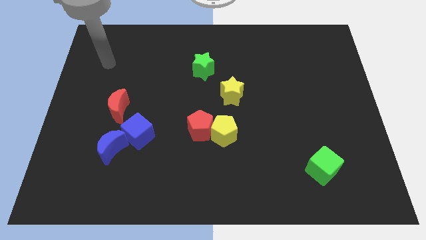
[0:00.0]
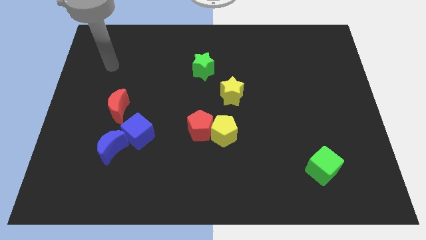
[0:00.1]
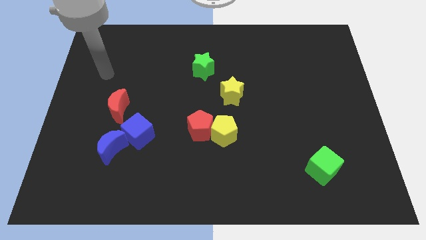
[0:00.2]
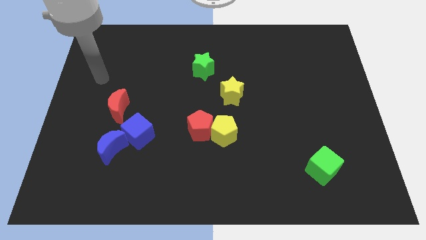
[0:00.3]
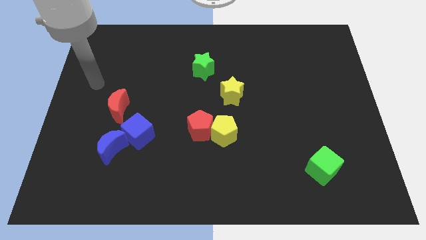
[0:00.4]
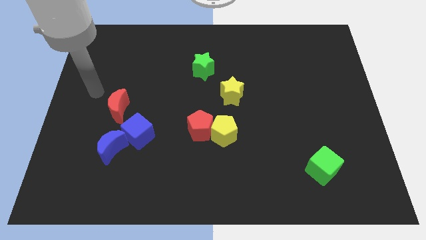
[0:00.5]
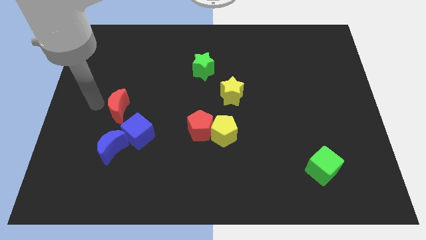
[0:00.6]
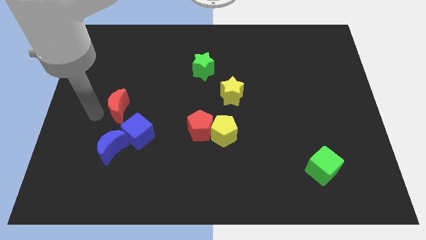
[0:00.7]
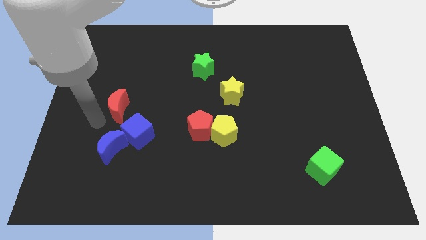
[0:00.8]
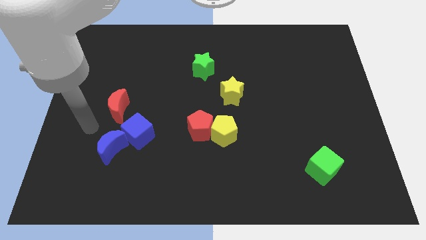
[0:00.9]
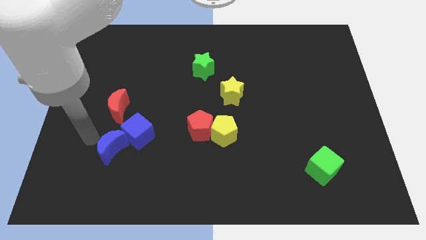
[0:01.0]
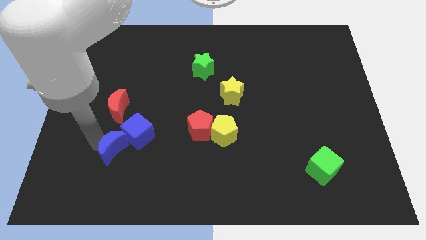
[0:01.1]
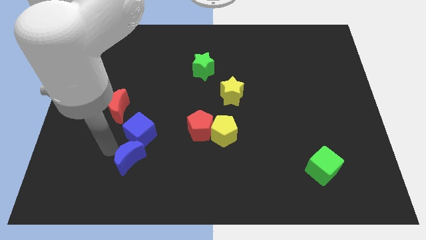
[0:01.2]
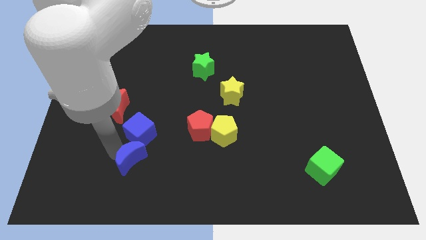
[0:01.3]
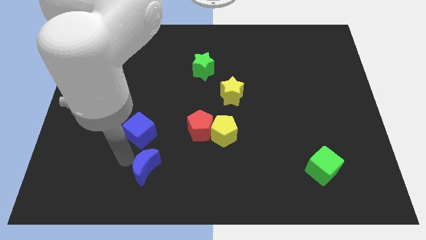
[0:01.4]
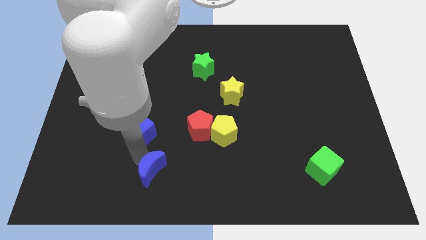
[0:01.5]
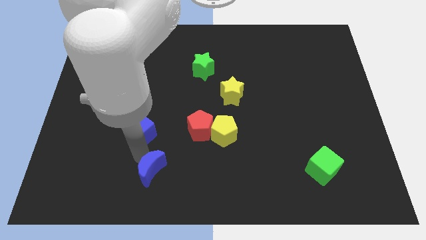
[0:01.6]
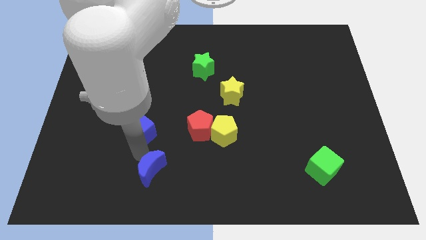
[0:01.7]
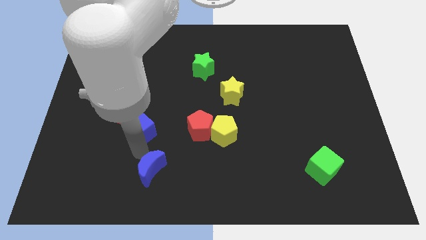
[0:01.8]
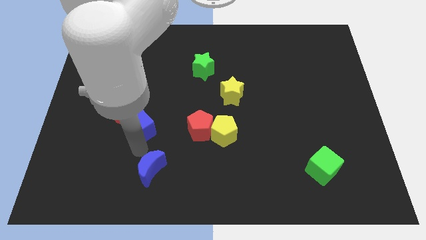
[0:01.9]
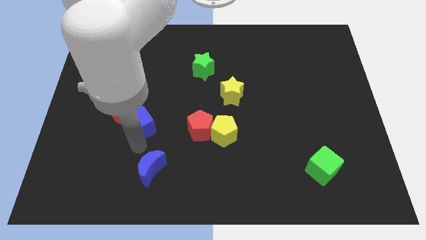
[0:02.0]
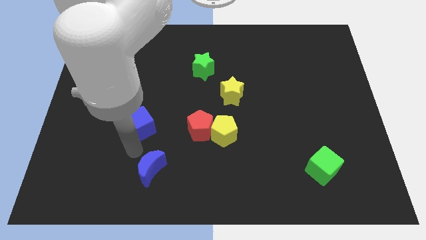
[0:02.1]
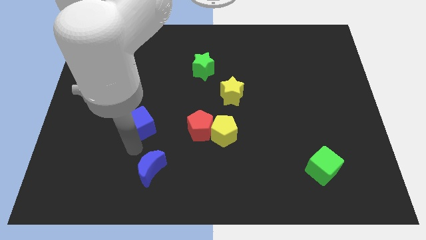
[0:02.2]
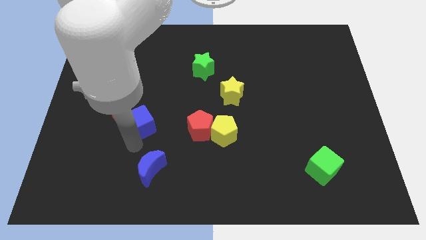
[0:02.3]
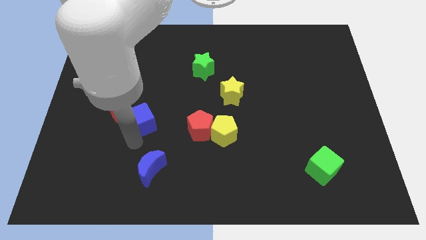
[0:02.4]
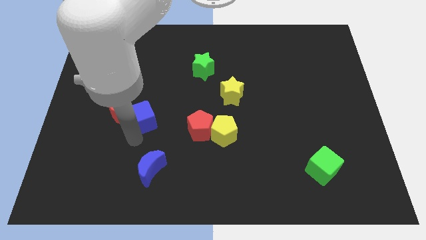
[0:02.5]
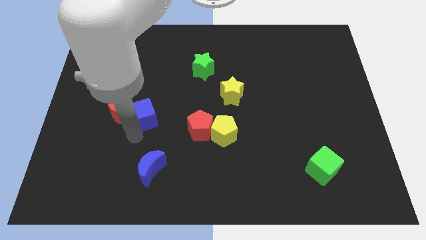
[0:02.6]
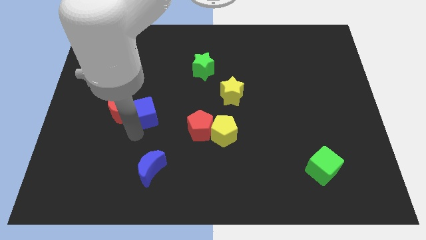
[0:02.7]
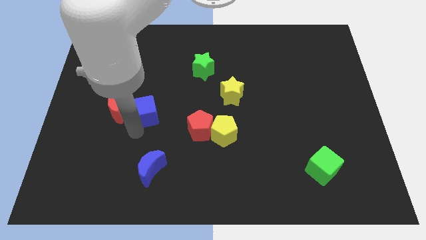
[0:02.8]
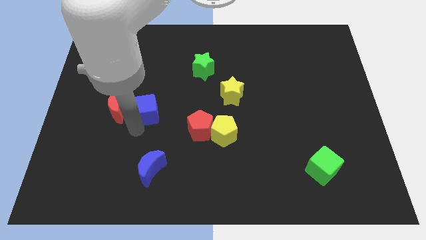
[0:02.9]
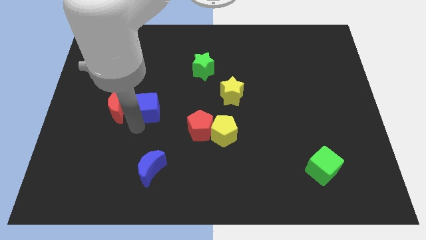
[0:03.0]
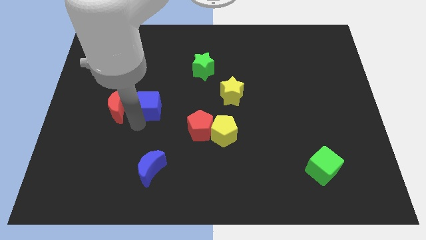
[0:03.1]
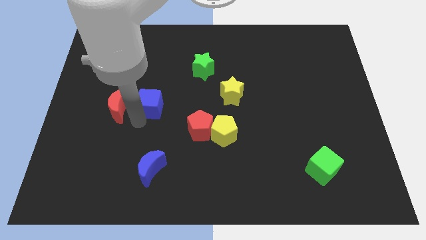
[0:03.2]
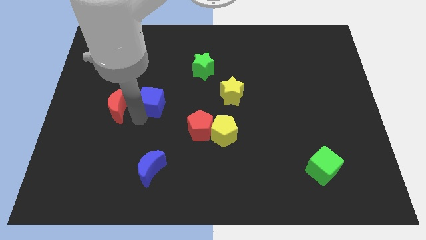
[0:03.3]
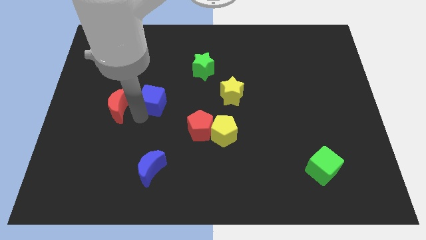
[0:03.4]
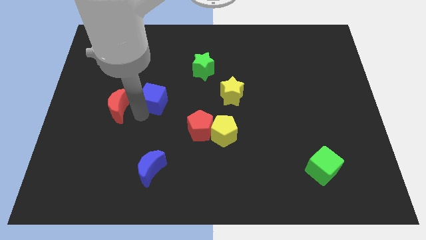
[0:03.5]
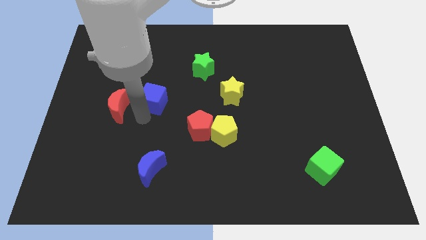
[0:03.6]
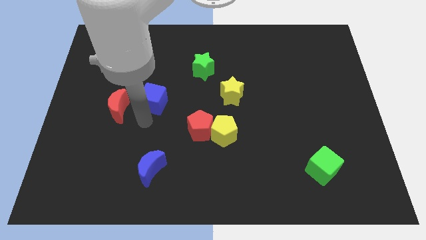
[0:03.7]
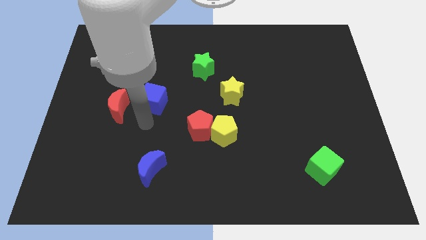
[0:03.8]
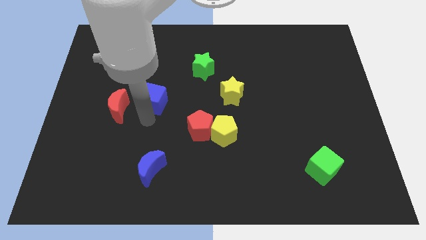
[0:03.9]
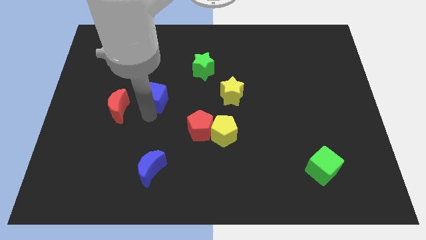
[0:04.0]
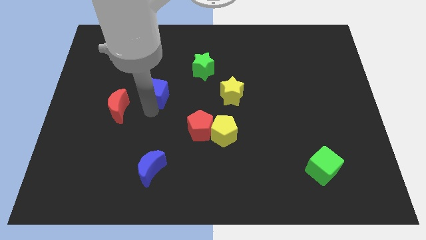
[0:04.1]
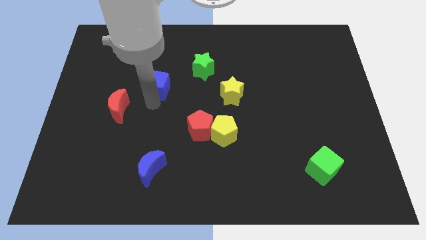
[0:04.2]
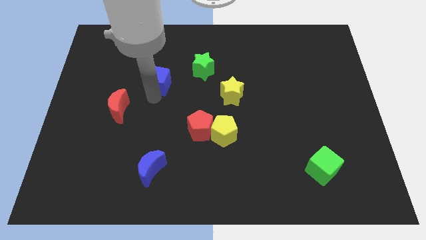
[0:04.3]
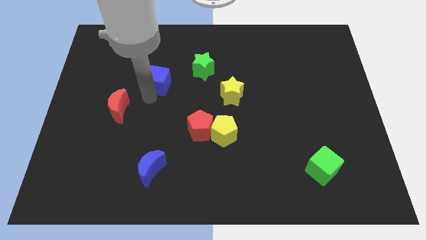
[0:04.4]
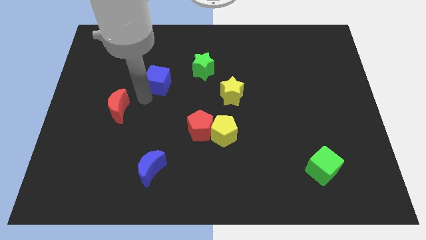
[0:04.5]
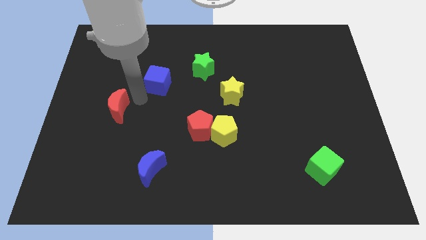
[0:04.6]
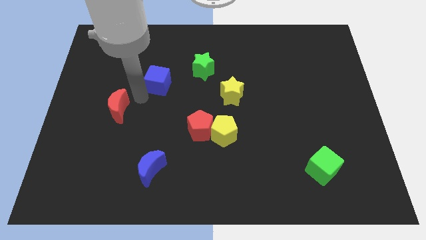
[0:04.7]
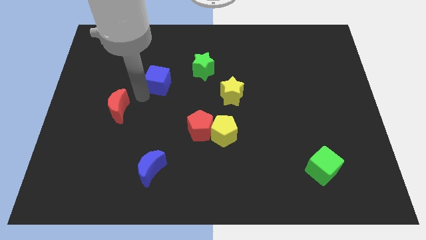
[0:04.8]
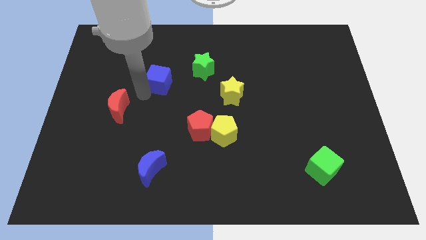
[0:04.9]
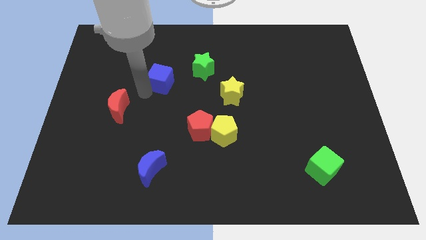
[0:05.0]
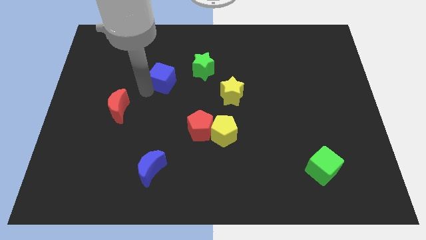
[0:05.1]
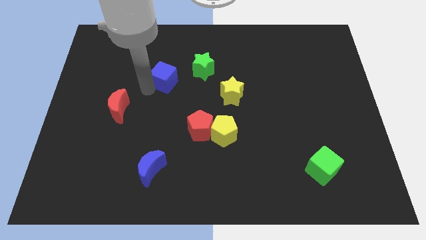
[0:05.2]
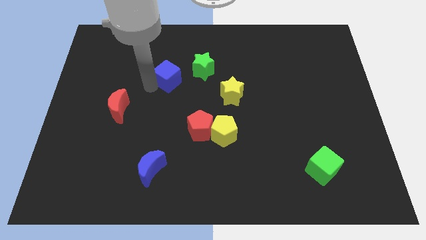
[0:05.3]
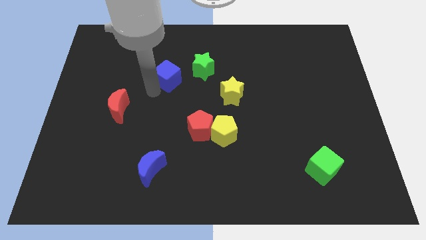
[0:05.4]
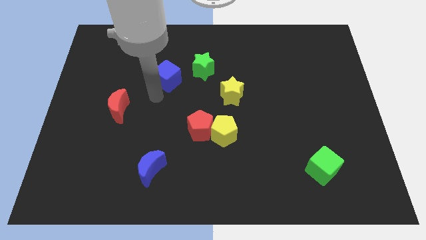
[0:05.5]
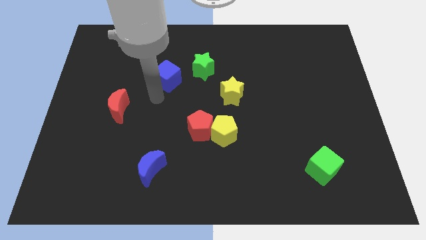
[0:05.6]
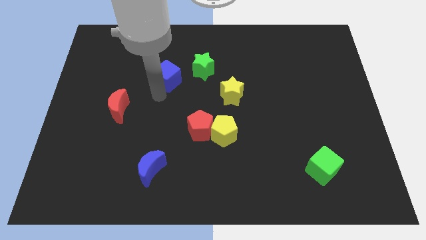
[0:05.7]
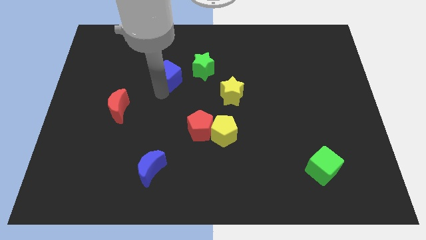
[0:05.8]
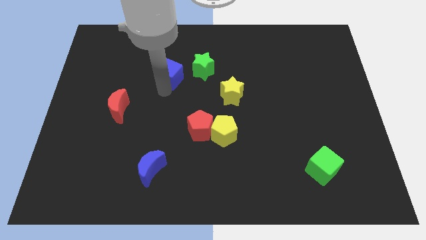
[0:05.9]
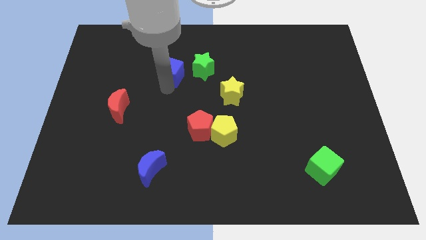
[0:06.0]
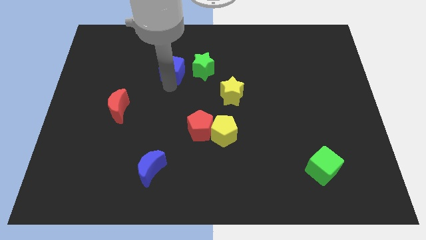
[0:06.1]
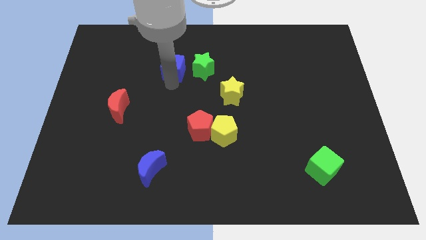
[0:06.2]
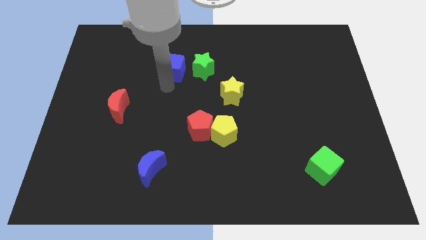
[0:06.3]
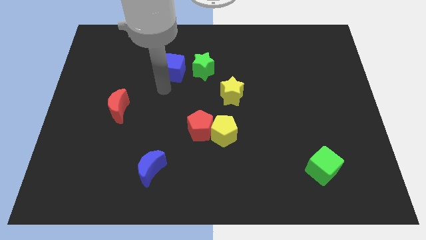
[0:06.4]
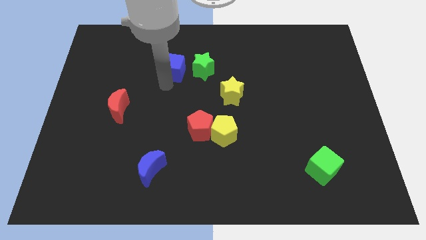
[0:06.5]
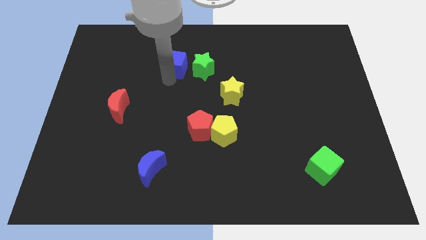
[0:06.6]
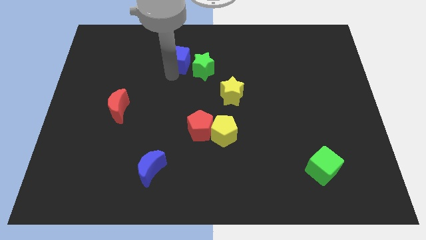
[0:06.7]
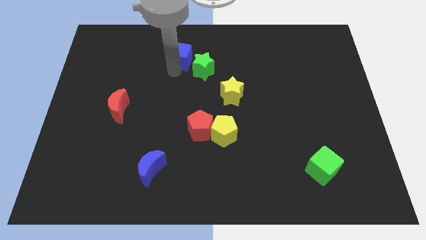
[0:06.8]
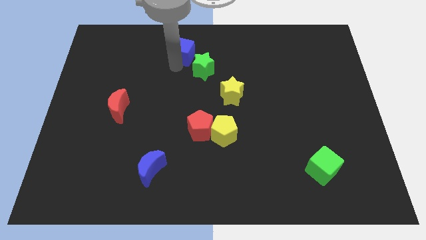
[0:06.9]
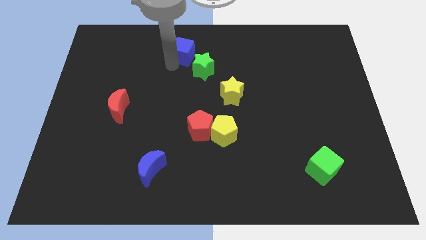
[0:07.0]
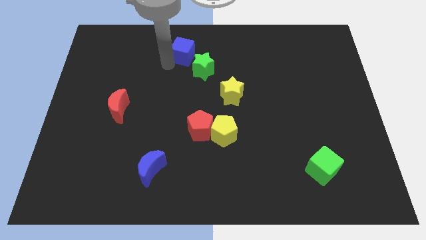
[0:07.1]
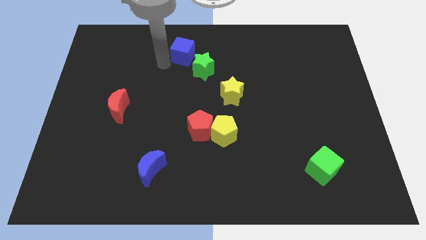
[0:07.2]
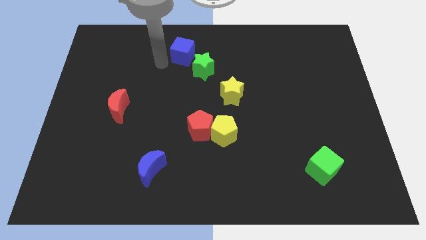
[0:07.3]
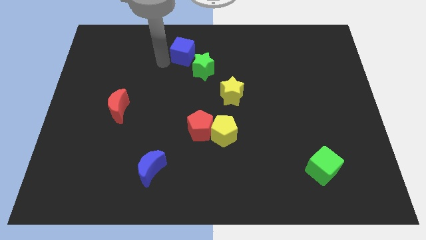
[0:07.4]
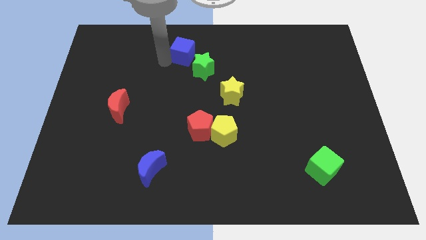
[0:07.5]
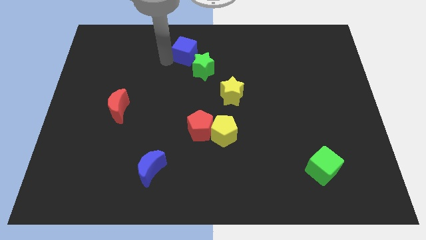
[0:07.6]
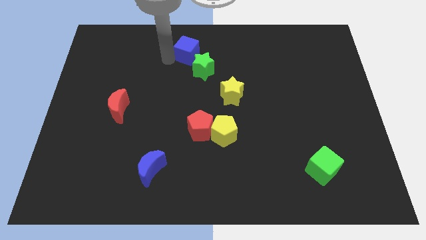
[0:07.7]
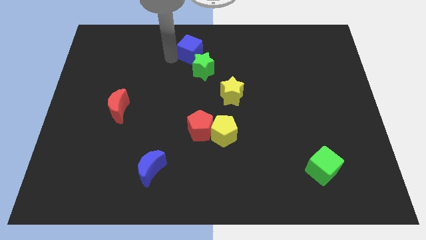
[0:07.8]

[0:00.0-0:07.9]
push the blue cube to the towards your base

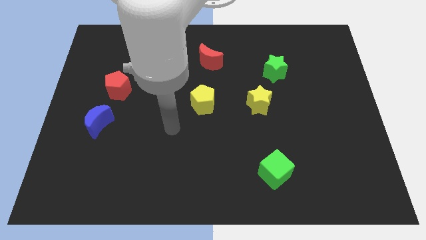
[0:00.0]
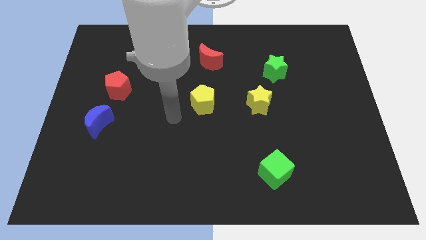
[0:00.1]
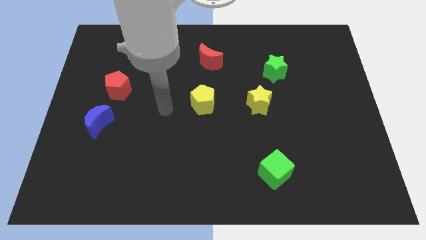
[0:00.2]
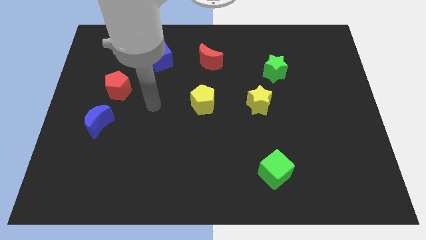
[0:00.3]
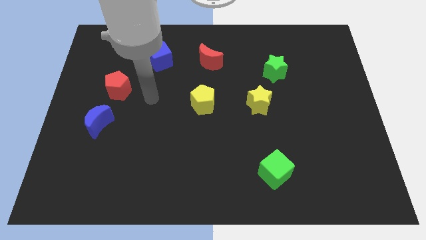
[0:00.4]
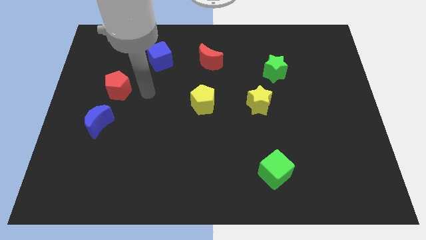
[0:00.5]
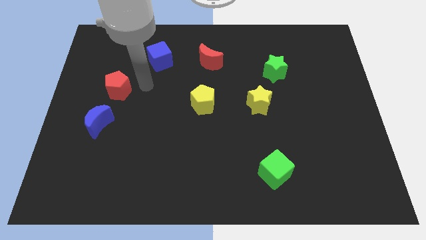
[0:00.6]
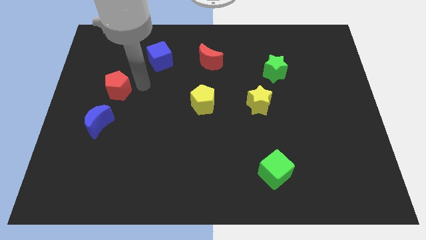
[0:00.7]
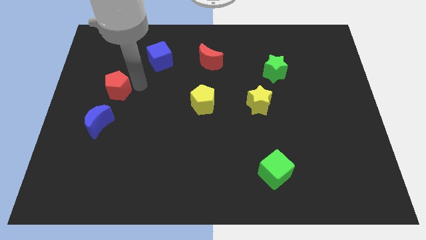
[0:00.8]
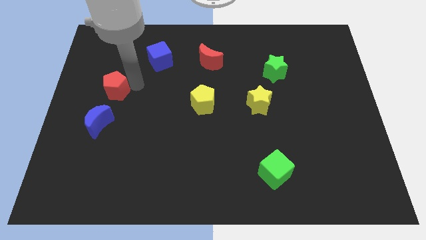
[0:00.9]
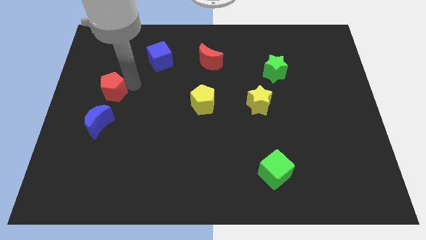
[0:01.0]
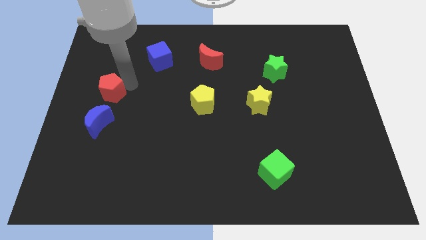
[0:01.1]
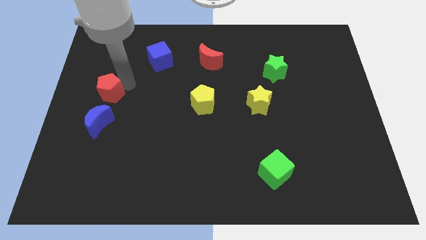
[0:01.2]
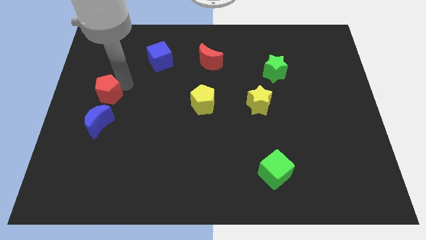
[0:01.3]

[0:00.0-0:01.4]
slide the red pentagon to the left side
